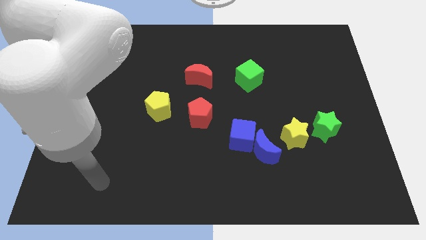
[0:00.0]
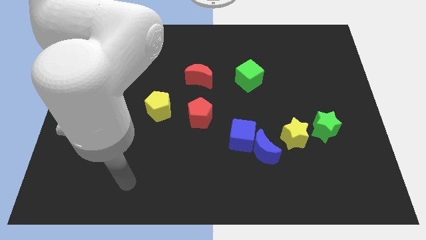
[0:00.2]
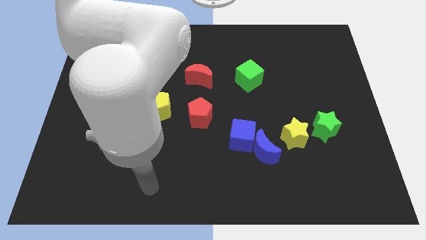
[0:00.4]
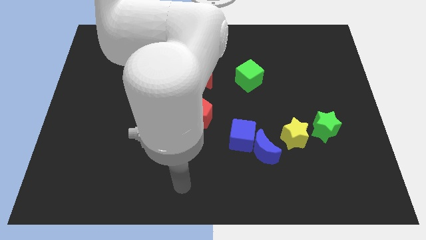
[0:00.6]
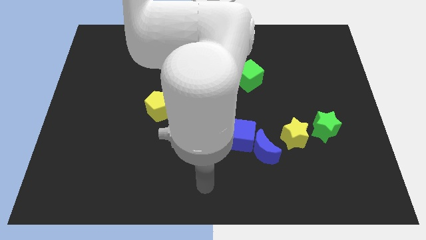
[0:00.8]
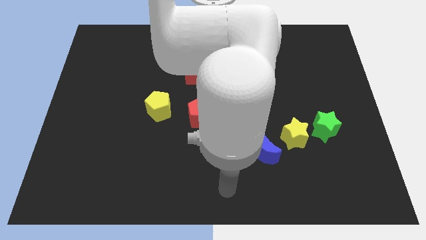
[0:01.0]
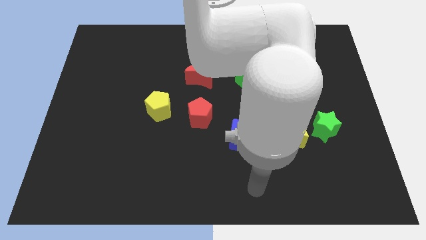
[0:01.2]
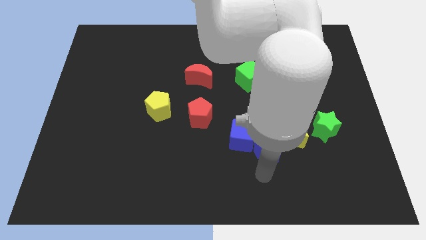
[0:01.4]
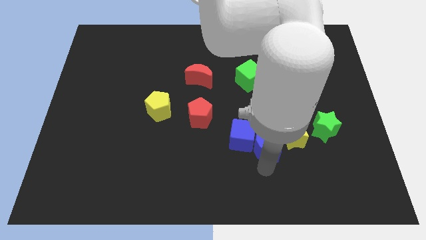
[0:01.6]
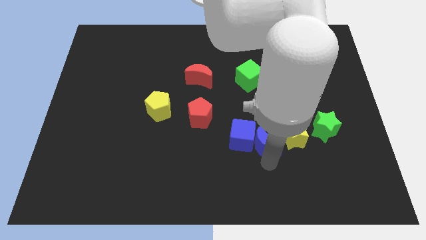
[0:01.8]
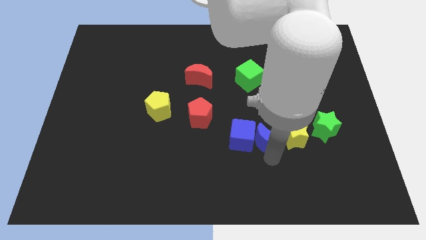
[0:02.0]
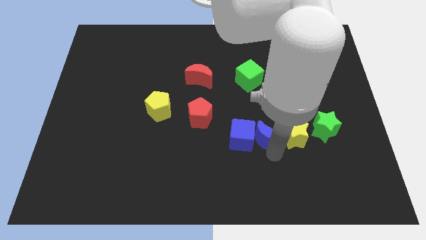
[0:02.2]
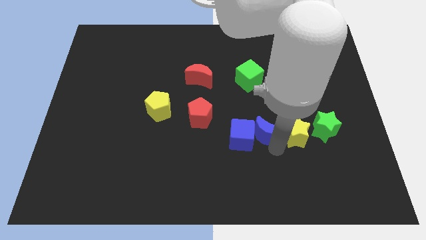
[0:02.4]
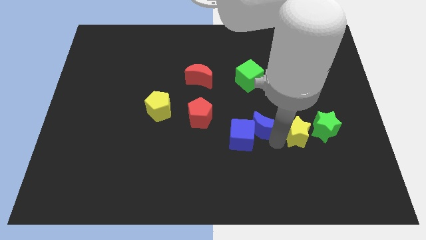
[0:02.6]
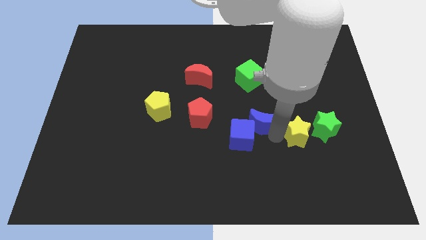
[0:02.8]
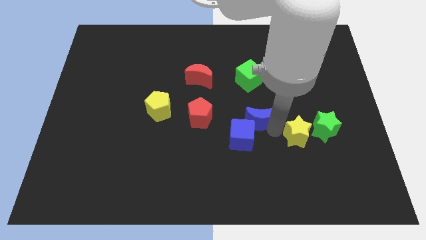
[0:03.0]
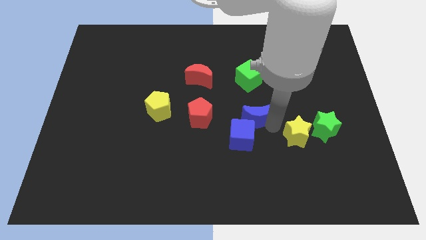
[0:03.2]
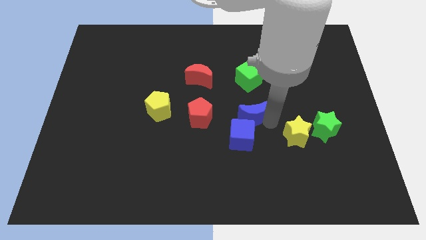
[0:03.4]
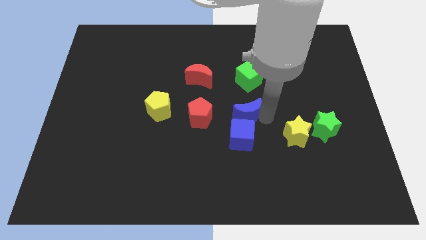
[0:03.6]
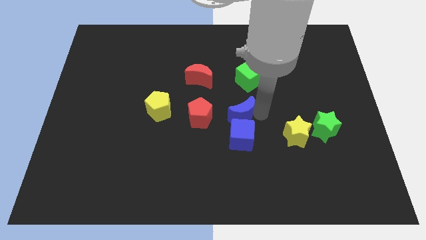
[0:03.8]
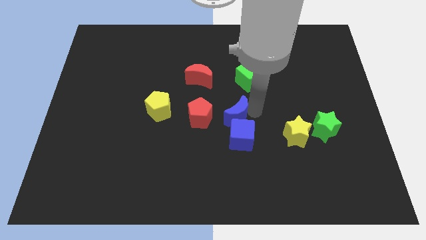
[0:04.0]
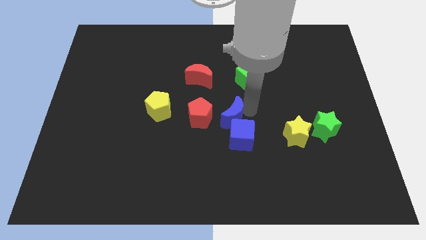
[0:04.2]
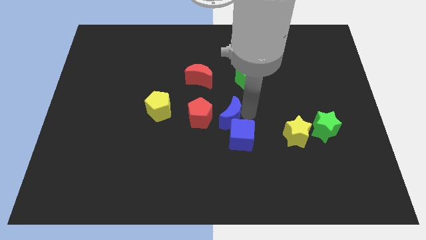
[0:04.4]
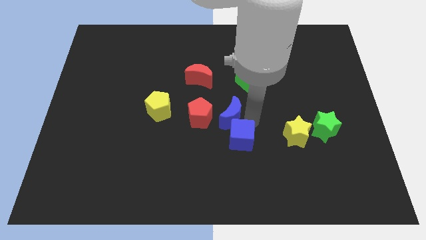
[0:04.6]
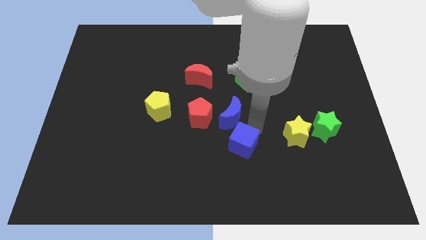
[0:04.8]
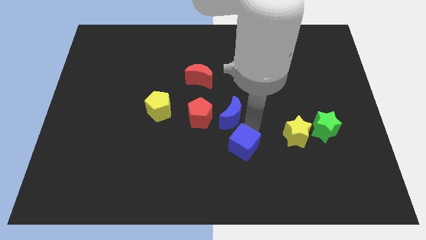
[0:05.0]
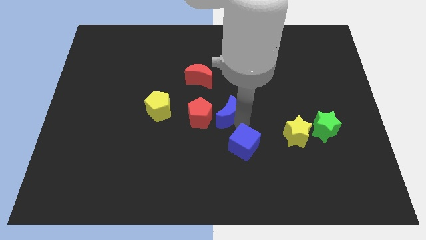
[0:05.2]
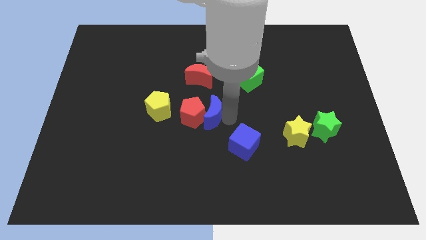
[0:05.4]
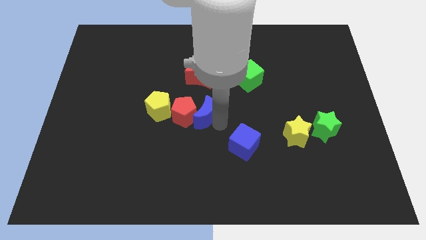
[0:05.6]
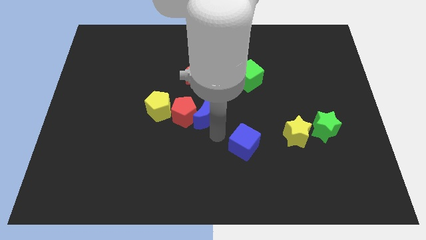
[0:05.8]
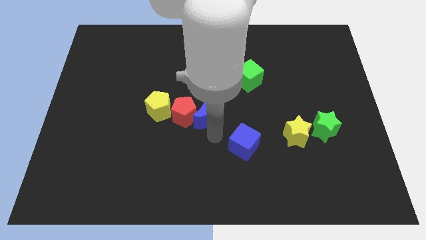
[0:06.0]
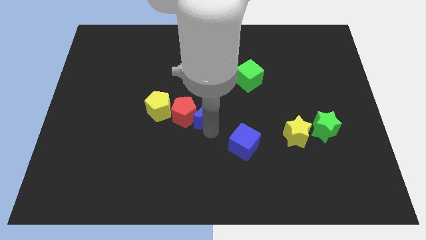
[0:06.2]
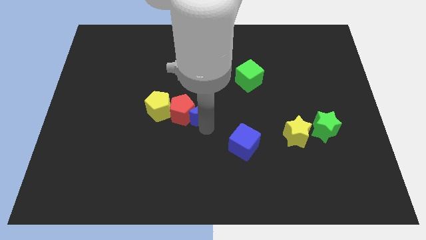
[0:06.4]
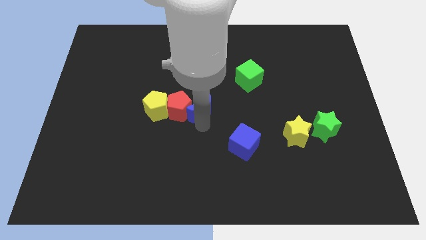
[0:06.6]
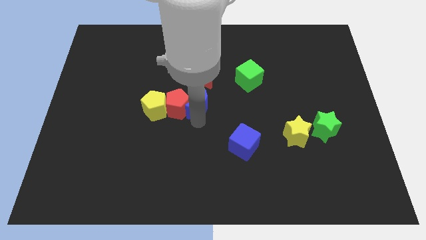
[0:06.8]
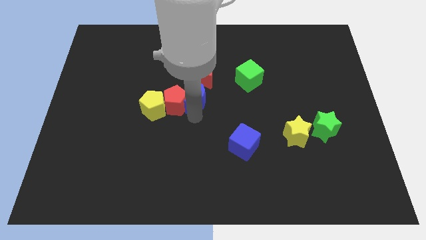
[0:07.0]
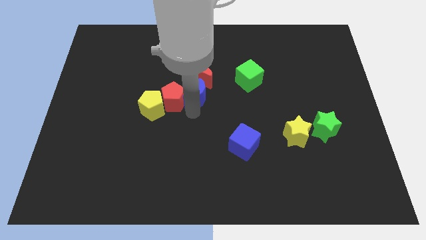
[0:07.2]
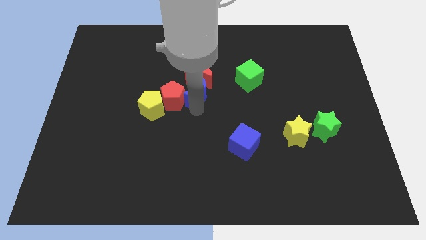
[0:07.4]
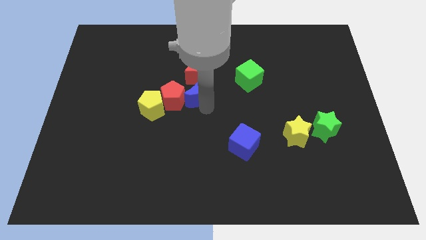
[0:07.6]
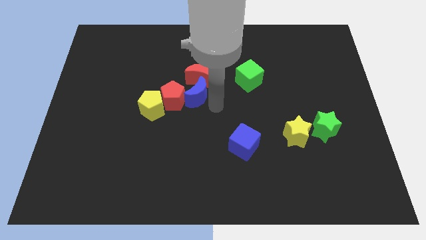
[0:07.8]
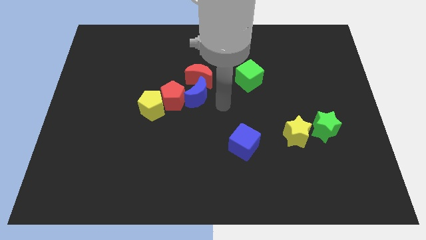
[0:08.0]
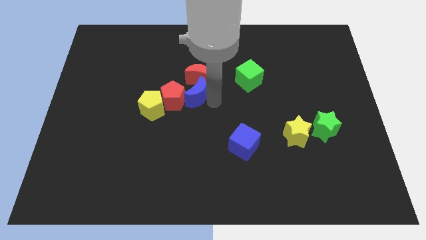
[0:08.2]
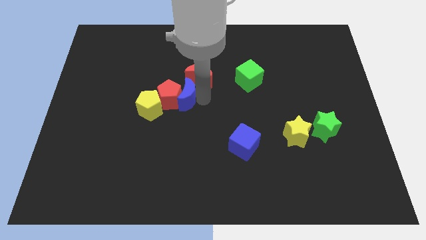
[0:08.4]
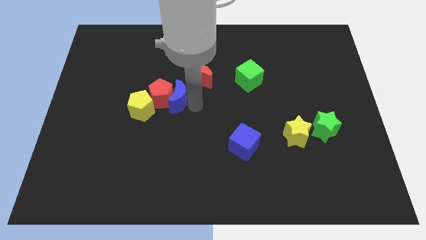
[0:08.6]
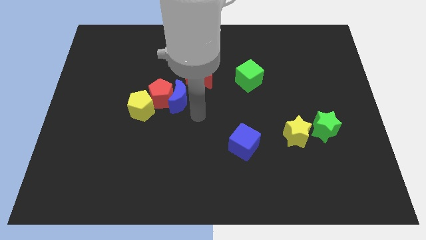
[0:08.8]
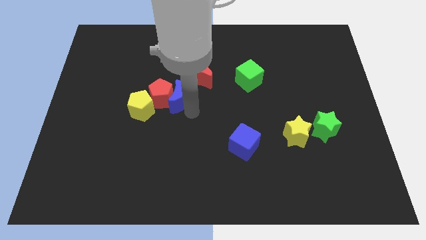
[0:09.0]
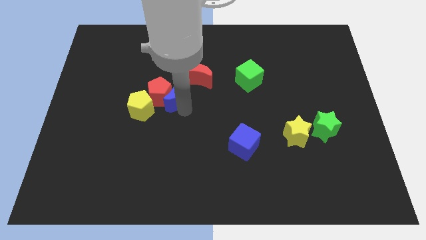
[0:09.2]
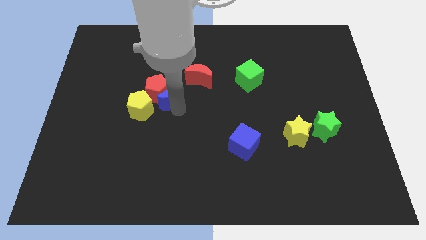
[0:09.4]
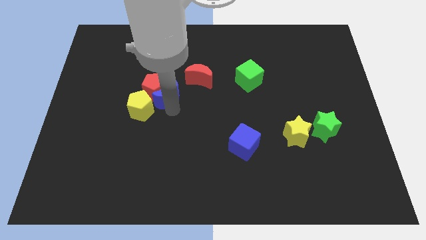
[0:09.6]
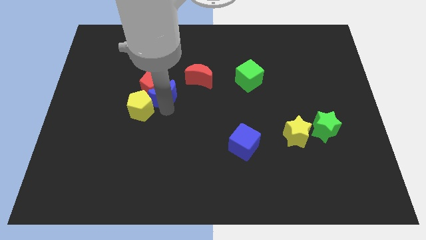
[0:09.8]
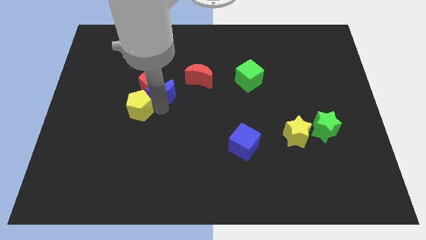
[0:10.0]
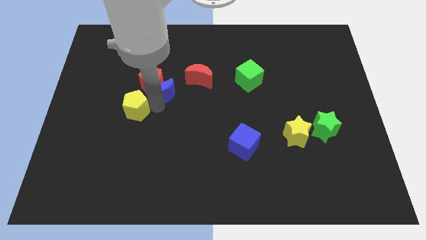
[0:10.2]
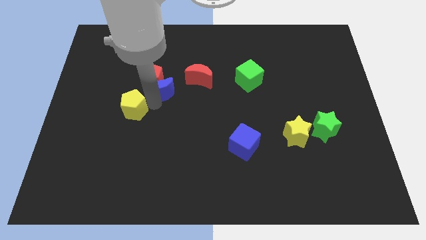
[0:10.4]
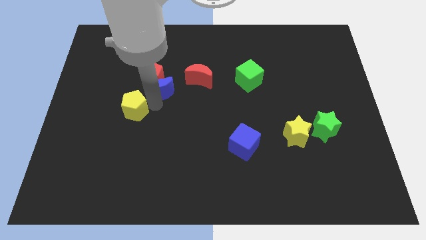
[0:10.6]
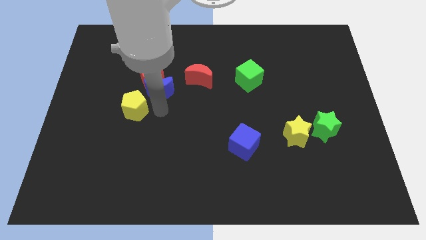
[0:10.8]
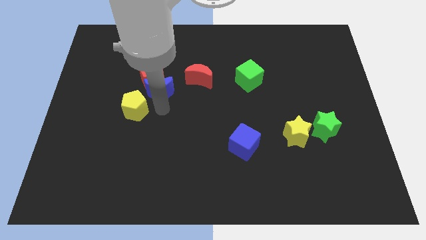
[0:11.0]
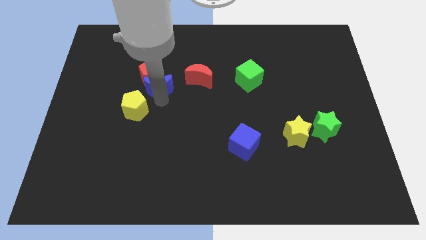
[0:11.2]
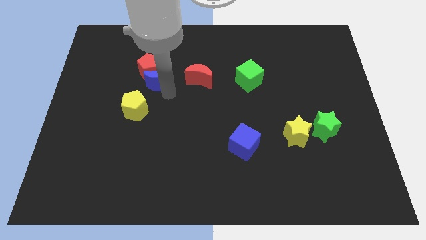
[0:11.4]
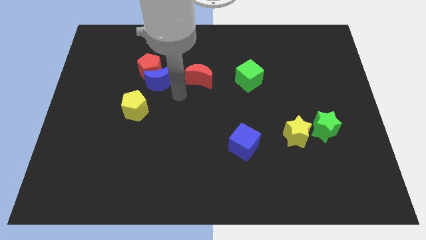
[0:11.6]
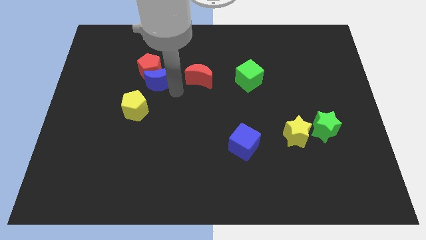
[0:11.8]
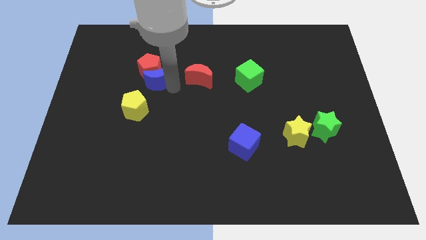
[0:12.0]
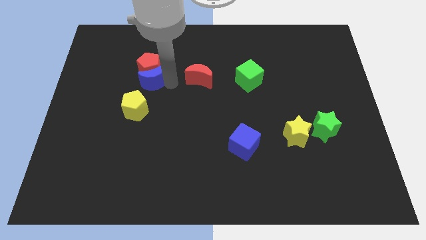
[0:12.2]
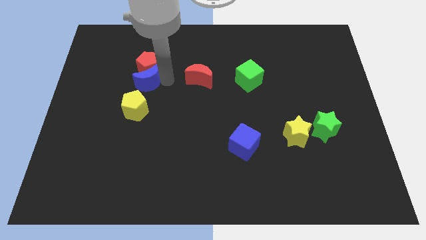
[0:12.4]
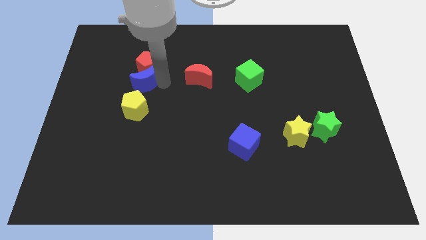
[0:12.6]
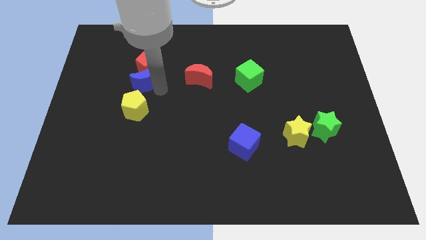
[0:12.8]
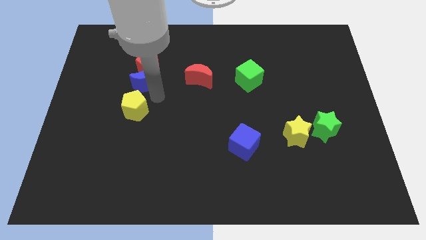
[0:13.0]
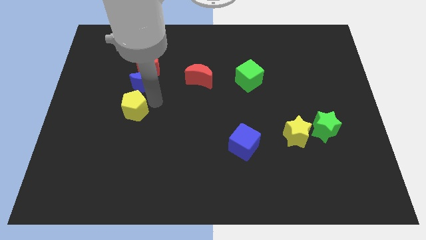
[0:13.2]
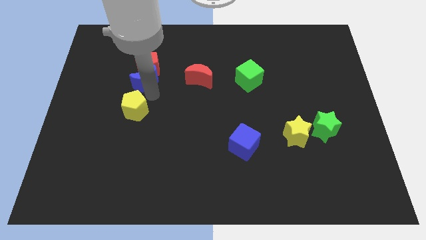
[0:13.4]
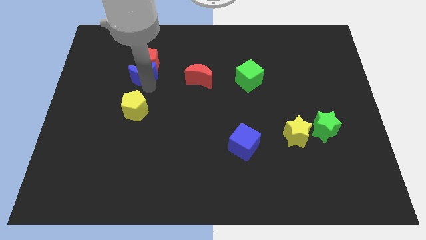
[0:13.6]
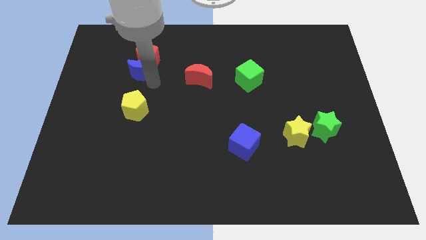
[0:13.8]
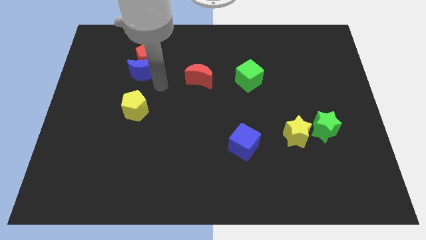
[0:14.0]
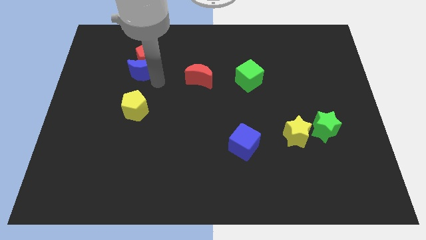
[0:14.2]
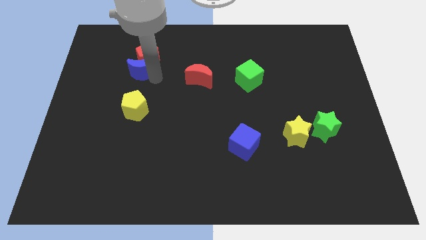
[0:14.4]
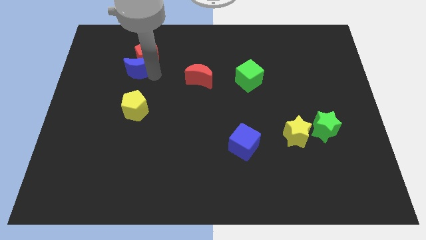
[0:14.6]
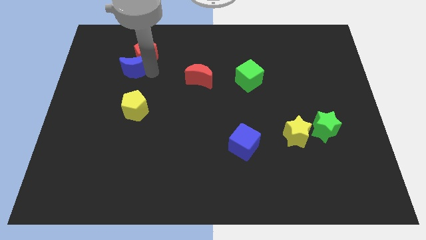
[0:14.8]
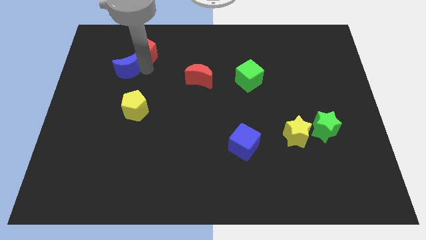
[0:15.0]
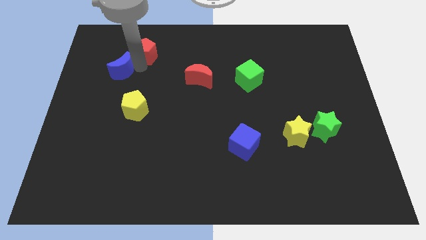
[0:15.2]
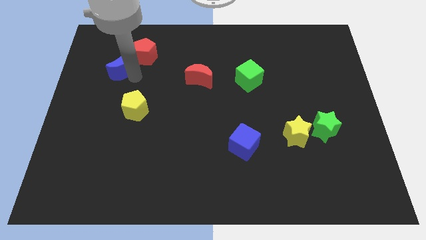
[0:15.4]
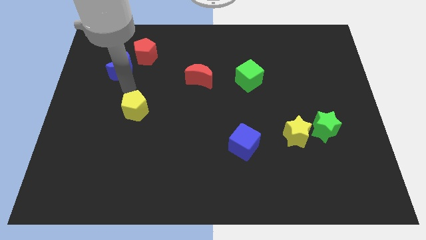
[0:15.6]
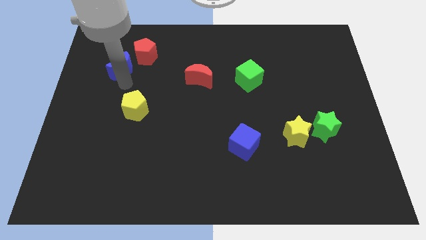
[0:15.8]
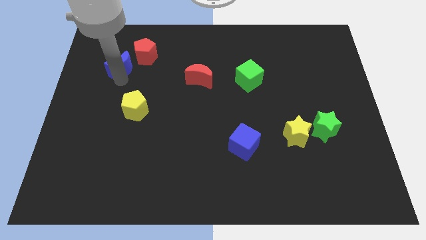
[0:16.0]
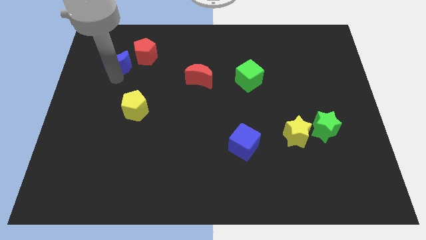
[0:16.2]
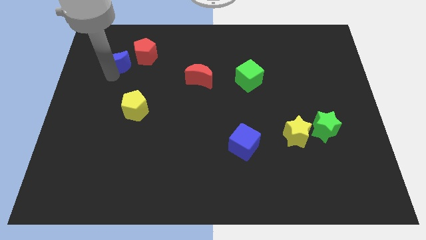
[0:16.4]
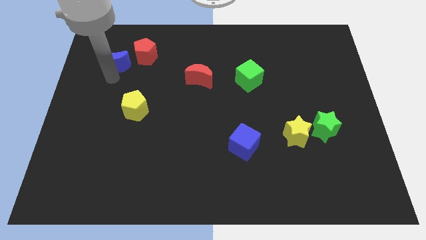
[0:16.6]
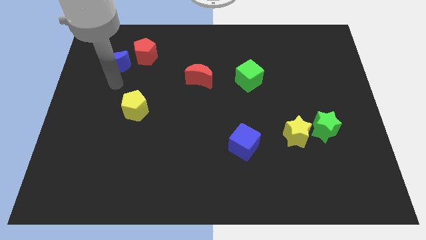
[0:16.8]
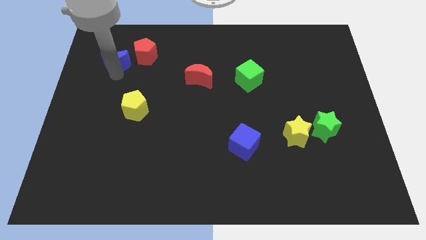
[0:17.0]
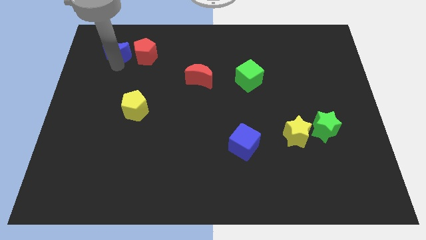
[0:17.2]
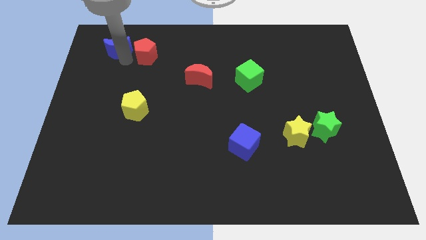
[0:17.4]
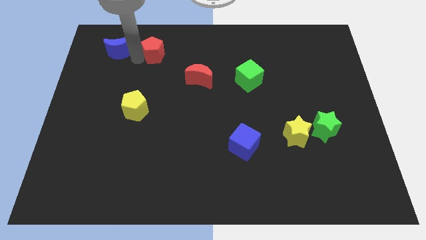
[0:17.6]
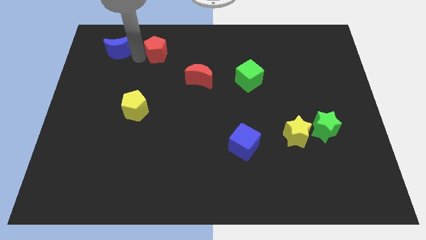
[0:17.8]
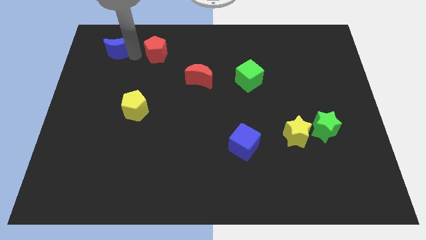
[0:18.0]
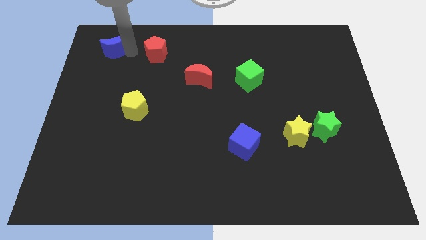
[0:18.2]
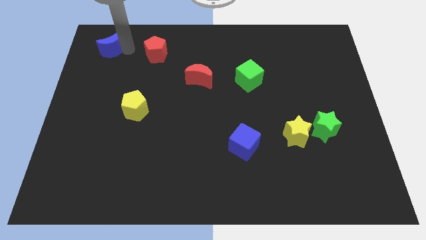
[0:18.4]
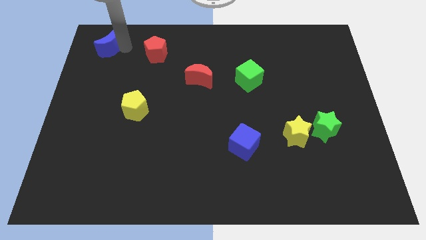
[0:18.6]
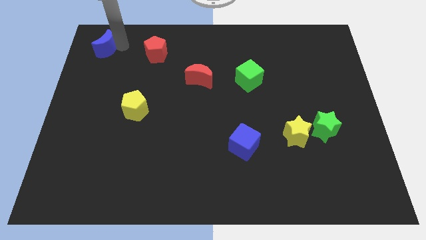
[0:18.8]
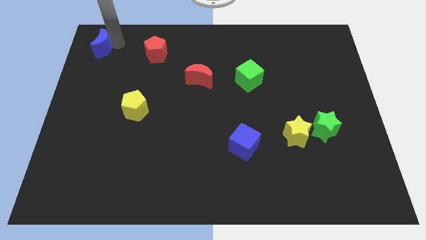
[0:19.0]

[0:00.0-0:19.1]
slide the blue moon to the top left corner
